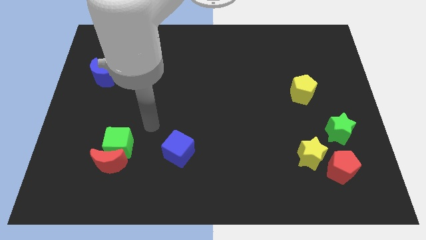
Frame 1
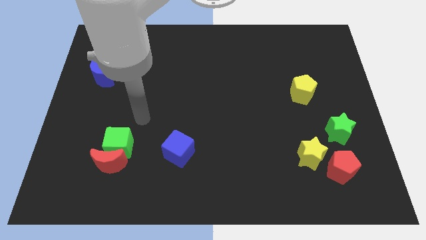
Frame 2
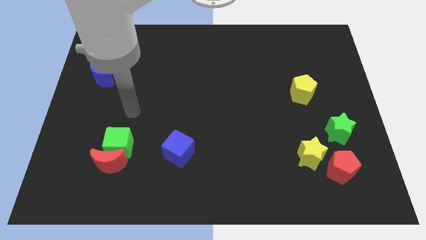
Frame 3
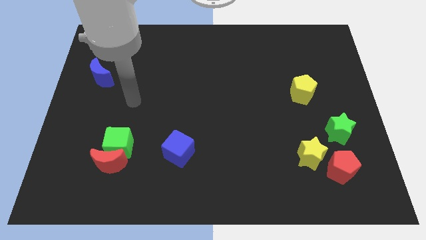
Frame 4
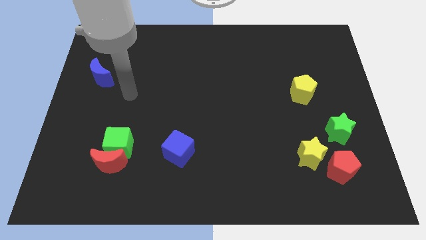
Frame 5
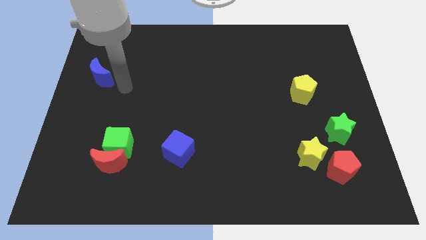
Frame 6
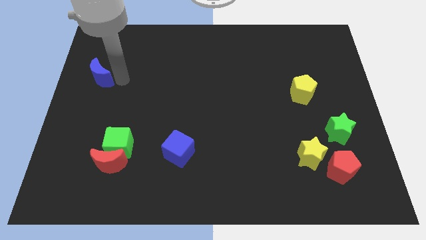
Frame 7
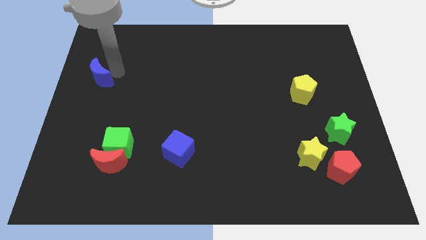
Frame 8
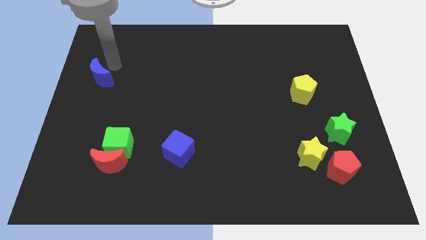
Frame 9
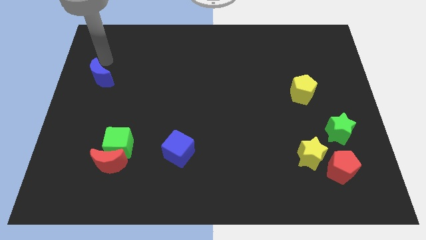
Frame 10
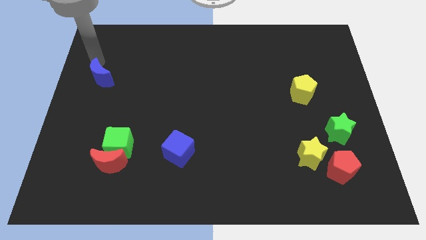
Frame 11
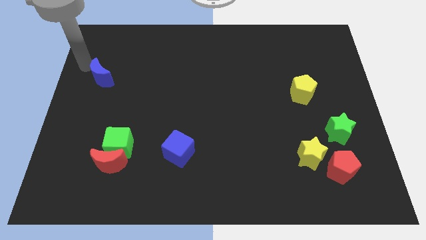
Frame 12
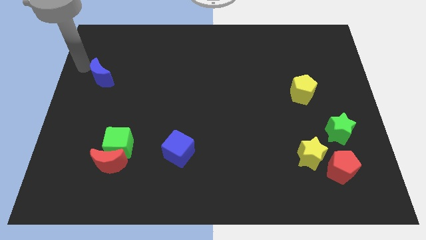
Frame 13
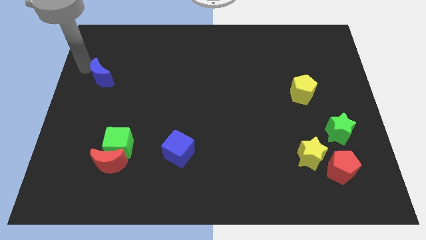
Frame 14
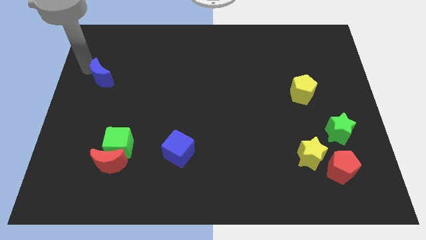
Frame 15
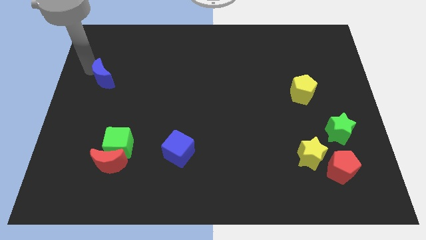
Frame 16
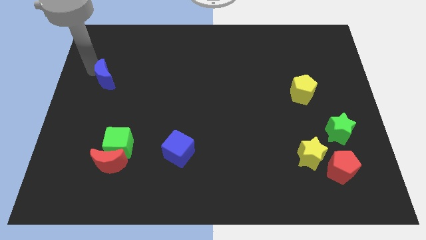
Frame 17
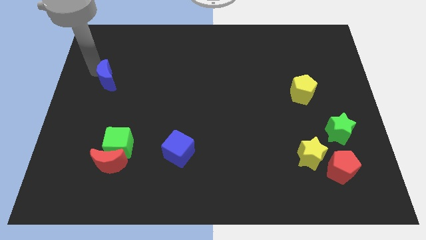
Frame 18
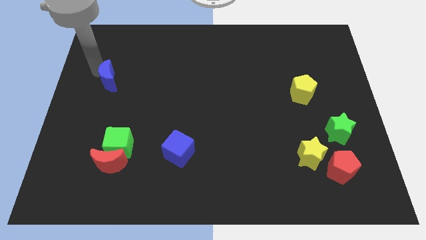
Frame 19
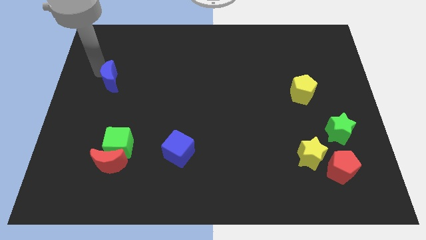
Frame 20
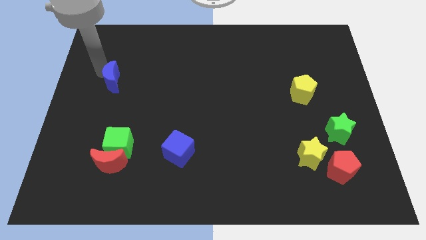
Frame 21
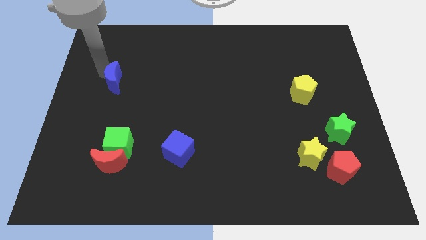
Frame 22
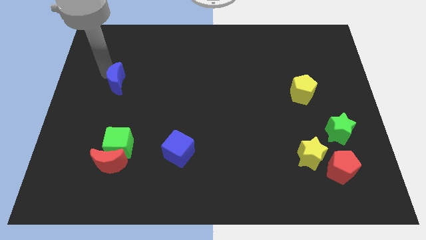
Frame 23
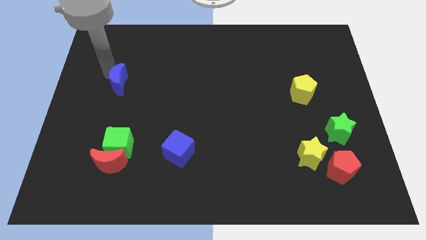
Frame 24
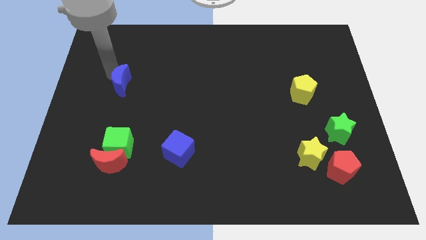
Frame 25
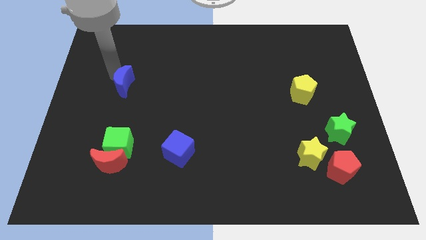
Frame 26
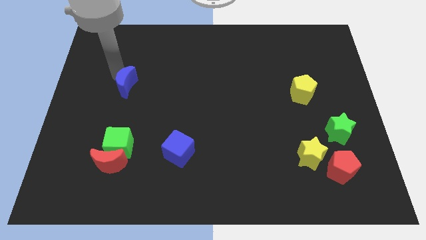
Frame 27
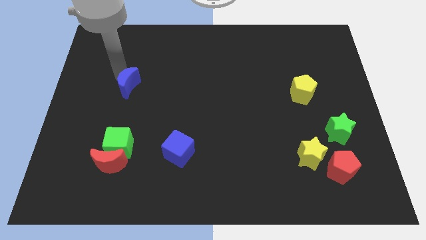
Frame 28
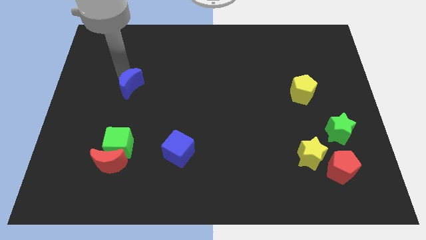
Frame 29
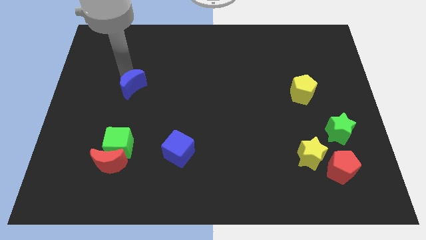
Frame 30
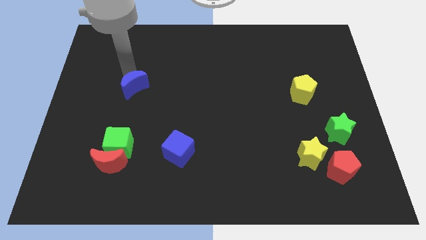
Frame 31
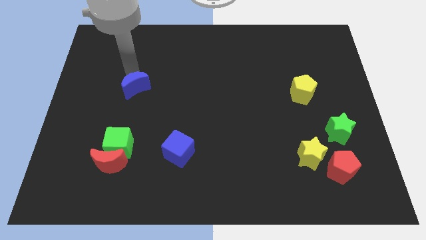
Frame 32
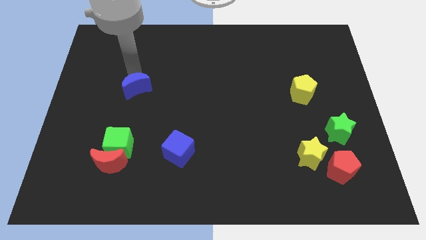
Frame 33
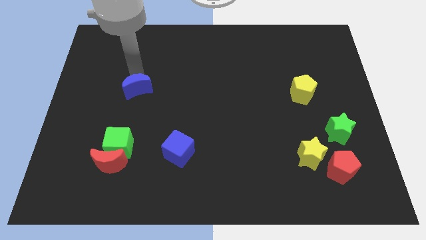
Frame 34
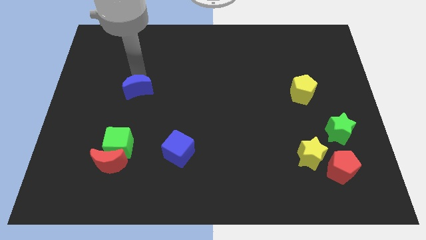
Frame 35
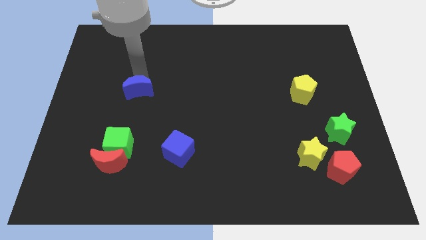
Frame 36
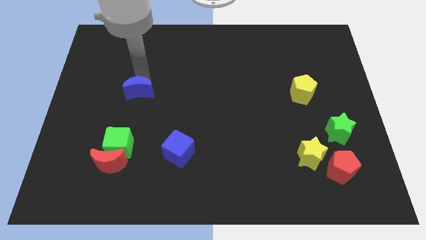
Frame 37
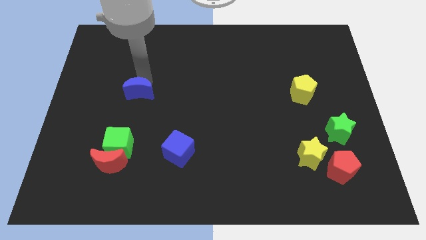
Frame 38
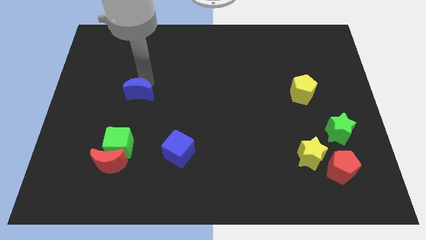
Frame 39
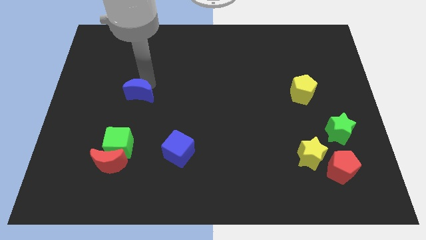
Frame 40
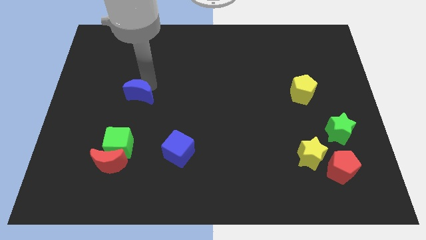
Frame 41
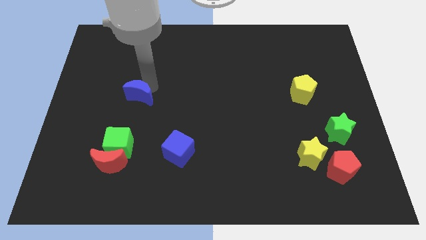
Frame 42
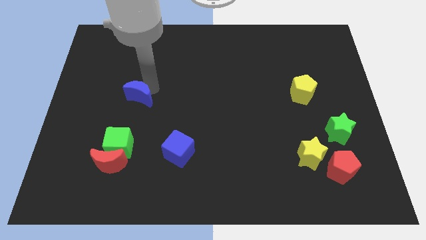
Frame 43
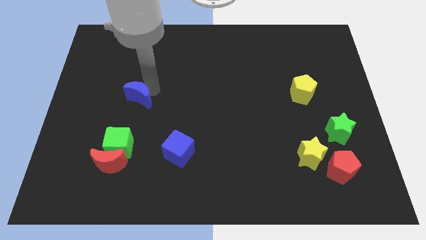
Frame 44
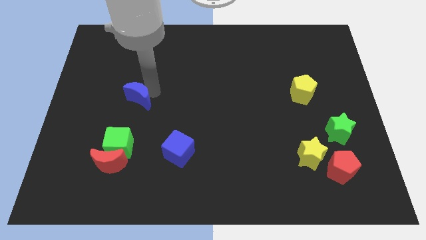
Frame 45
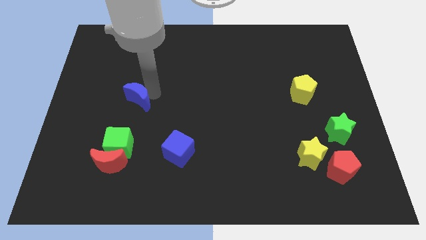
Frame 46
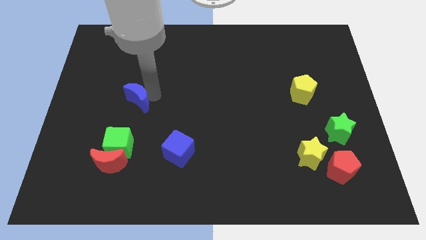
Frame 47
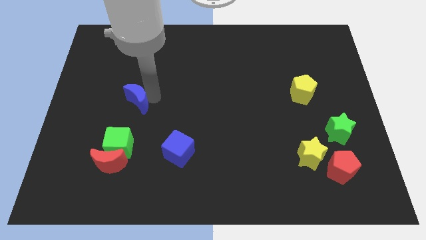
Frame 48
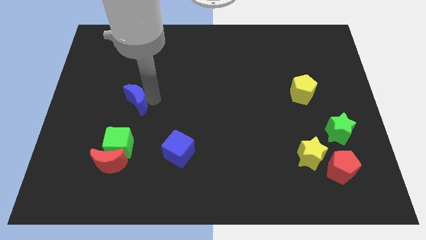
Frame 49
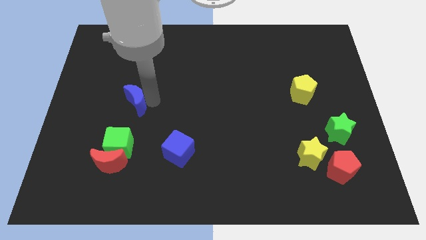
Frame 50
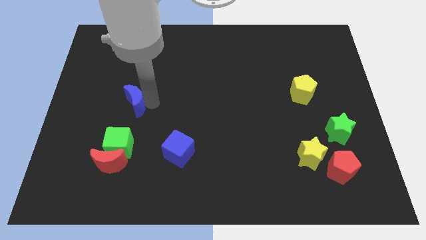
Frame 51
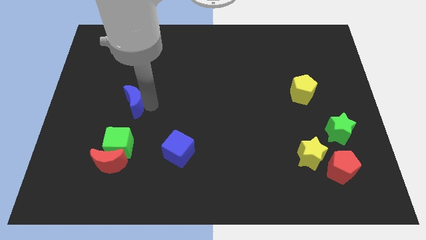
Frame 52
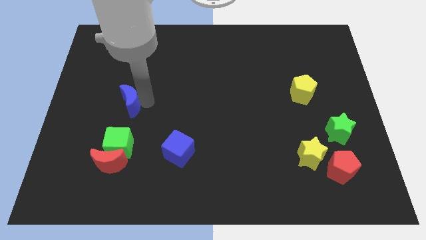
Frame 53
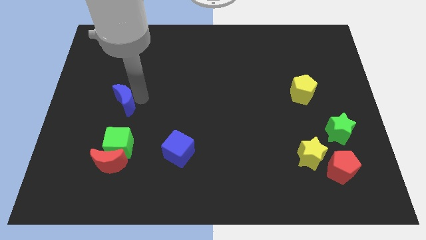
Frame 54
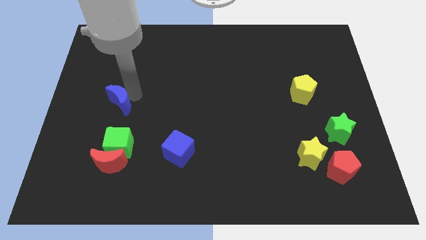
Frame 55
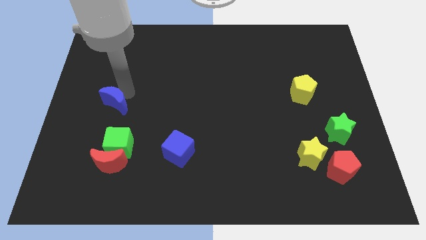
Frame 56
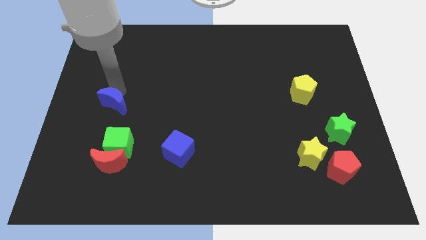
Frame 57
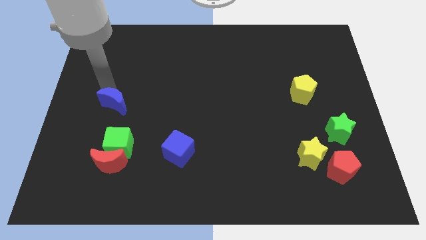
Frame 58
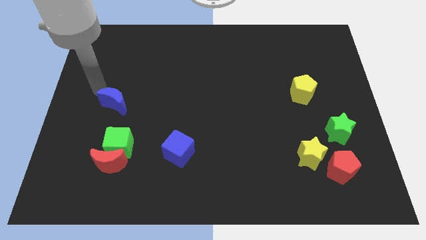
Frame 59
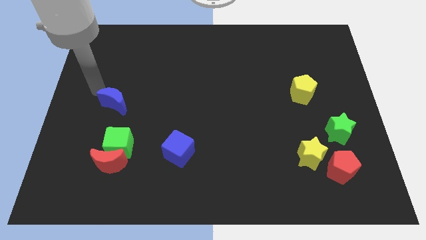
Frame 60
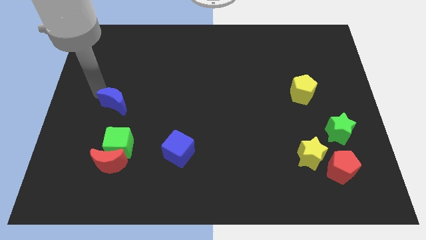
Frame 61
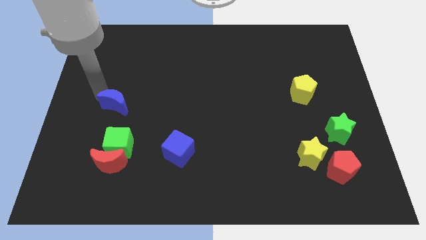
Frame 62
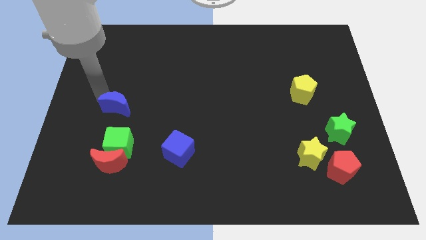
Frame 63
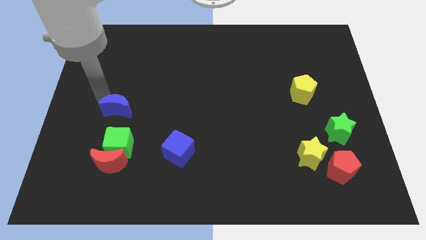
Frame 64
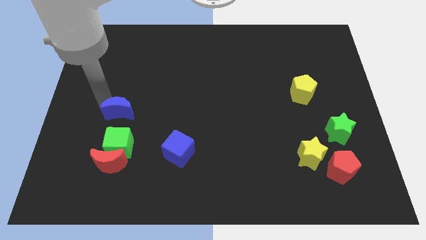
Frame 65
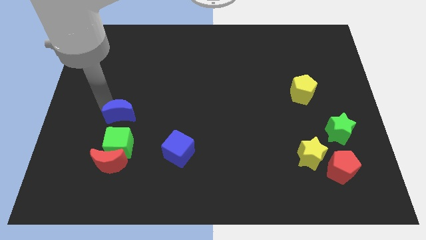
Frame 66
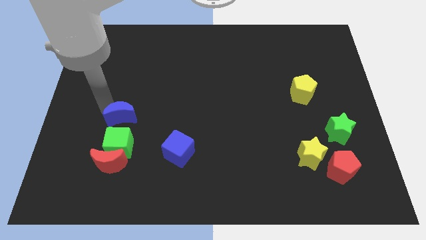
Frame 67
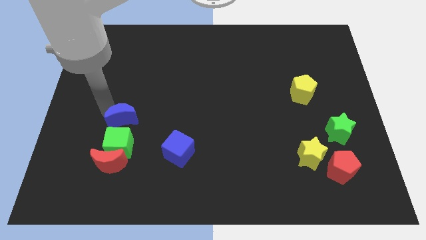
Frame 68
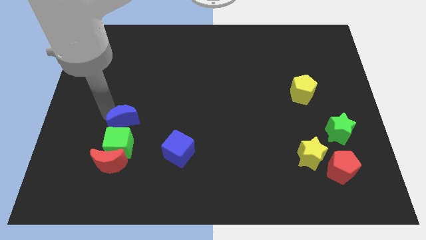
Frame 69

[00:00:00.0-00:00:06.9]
push the blue moon diagonally up and to the right of the green cube
